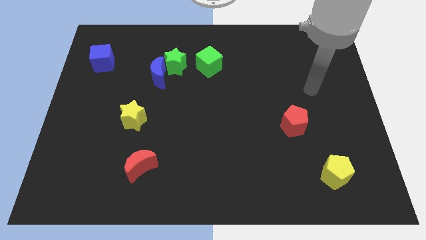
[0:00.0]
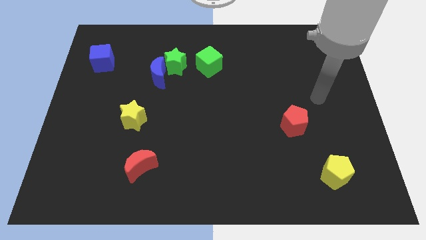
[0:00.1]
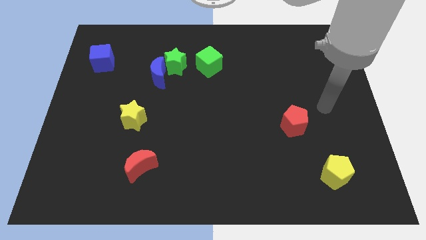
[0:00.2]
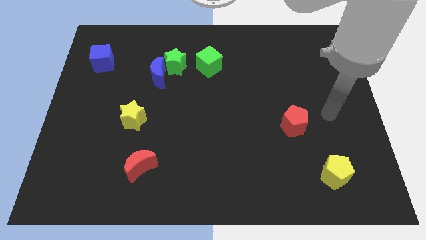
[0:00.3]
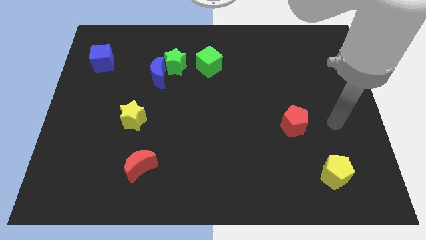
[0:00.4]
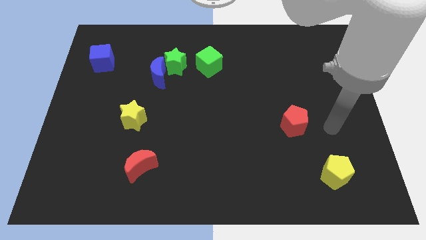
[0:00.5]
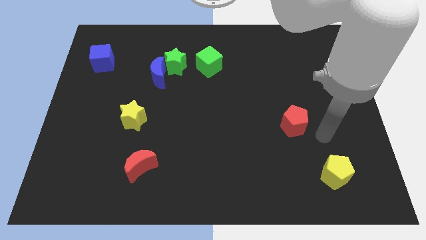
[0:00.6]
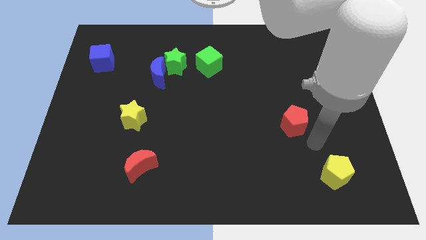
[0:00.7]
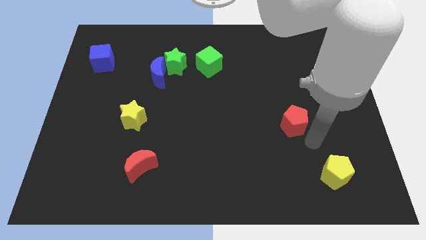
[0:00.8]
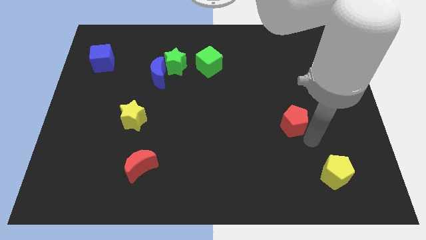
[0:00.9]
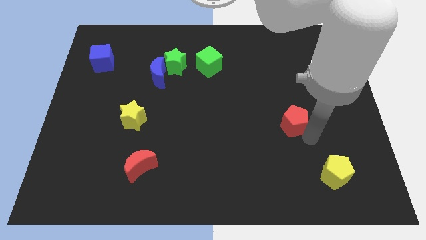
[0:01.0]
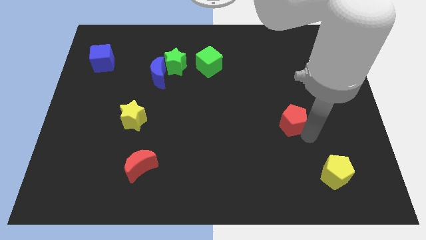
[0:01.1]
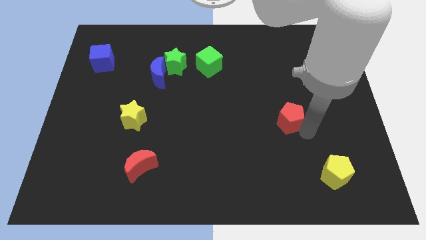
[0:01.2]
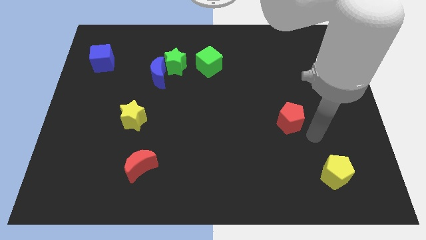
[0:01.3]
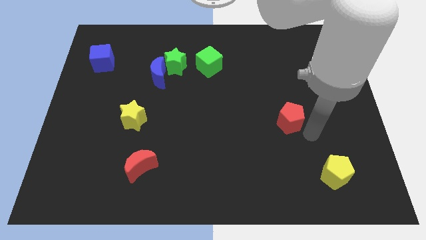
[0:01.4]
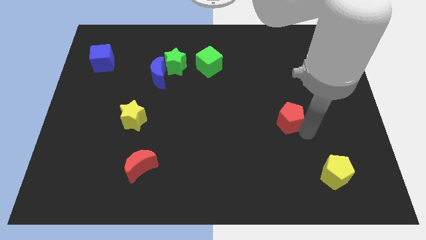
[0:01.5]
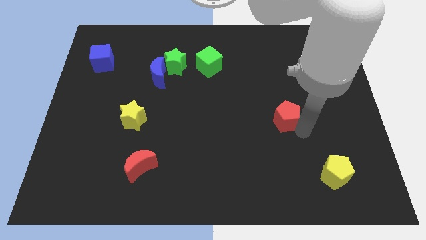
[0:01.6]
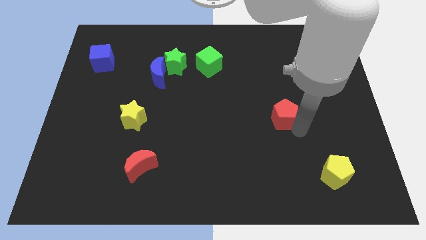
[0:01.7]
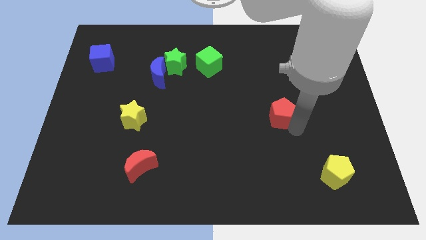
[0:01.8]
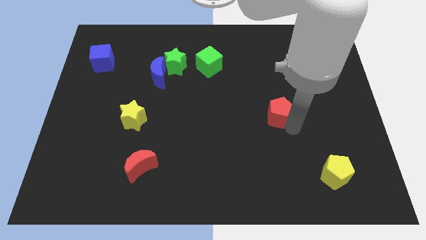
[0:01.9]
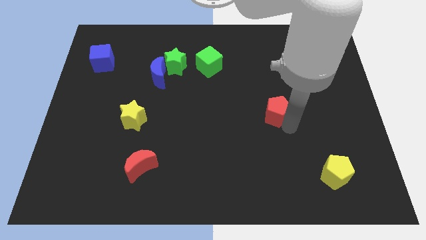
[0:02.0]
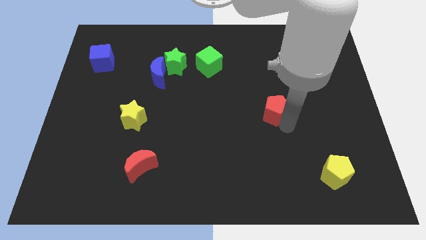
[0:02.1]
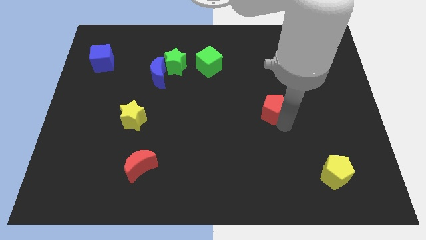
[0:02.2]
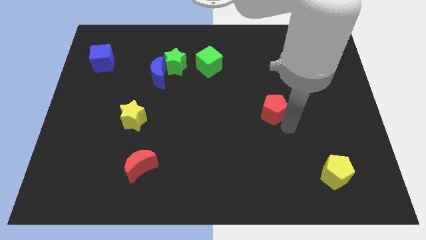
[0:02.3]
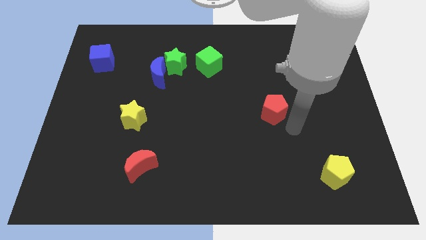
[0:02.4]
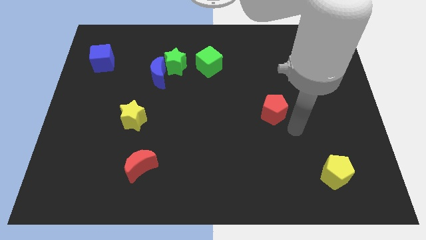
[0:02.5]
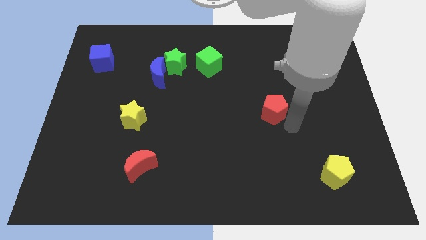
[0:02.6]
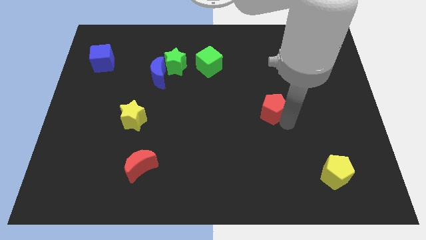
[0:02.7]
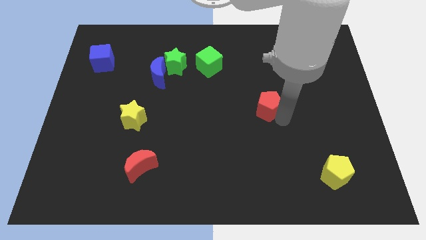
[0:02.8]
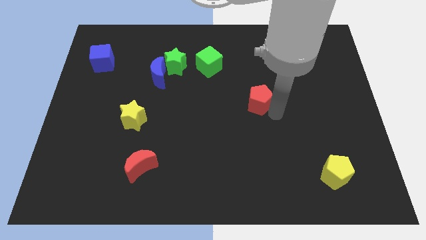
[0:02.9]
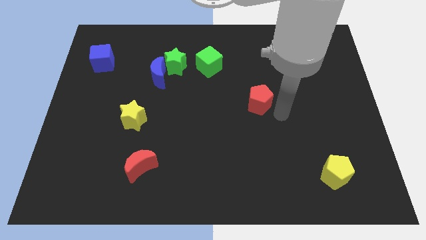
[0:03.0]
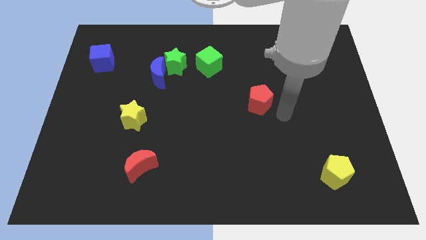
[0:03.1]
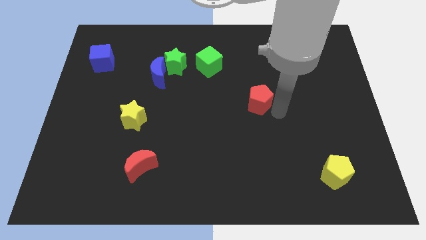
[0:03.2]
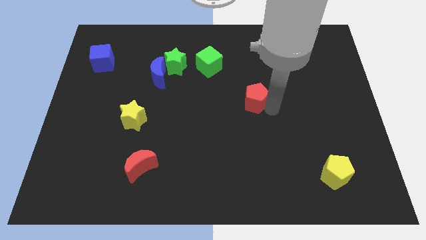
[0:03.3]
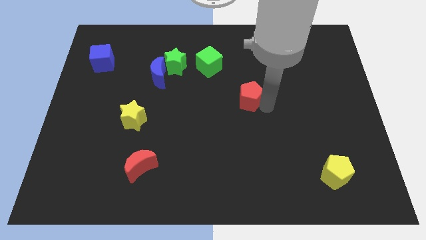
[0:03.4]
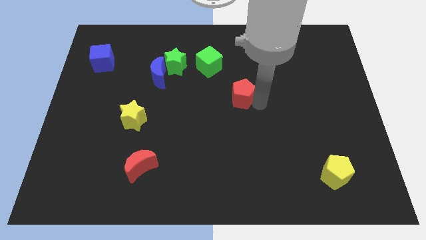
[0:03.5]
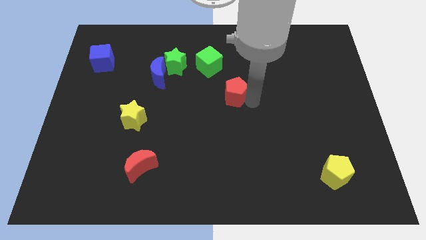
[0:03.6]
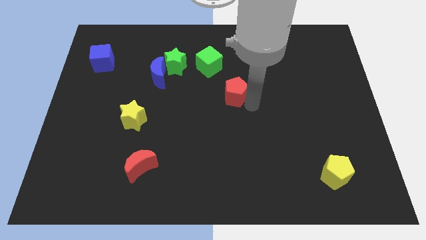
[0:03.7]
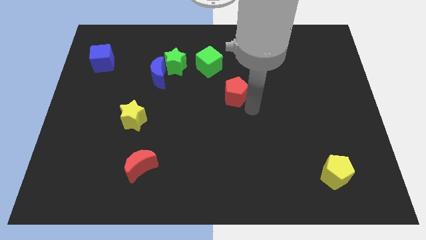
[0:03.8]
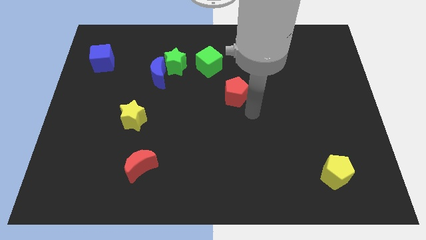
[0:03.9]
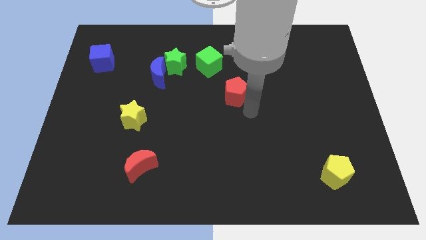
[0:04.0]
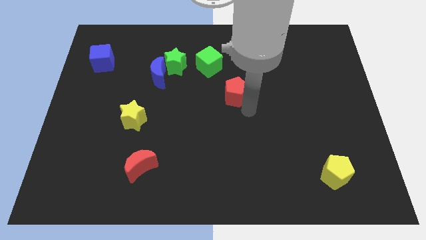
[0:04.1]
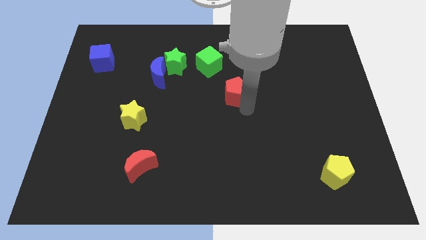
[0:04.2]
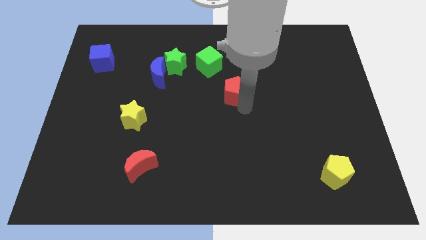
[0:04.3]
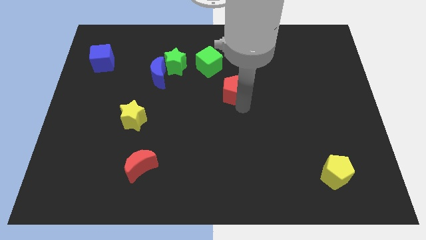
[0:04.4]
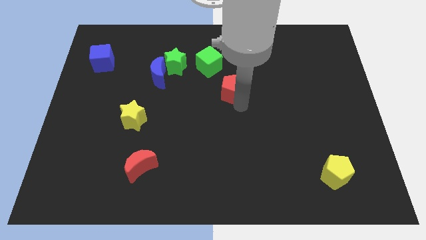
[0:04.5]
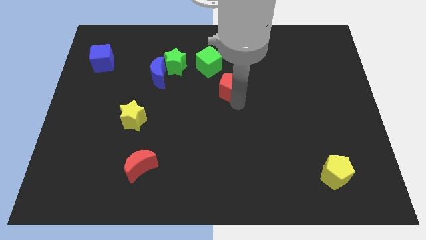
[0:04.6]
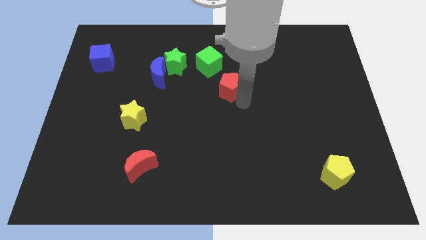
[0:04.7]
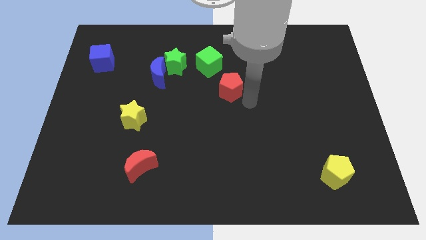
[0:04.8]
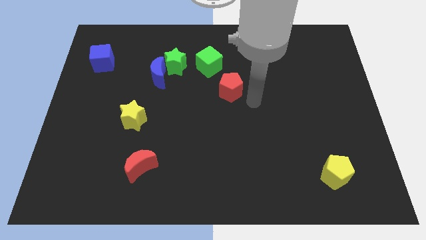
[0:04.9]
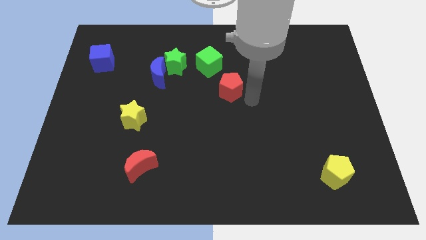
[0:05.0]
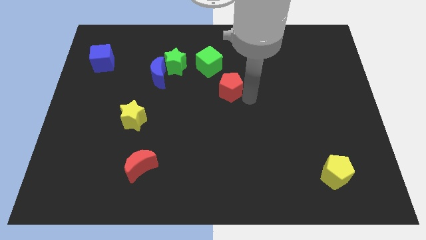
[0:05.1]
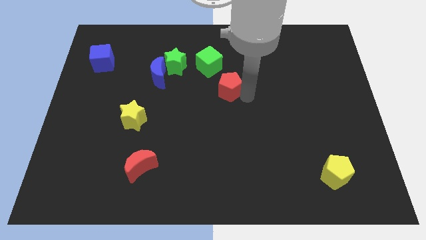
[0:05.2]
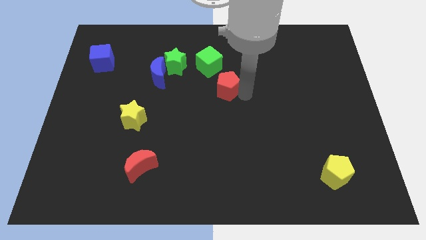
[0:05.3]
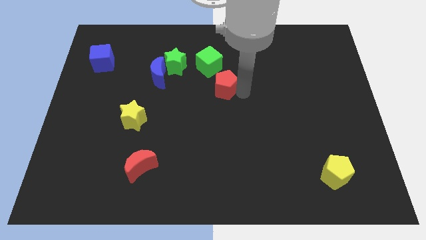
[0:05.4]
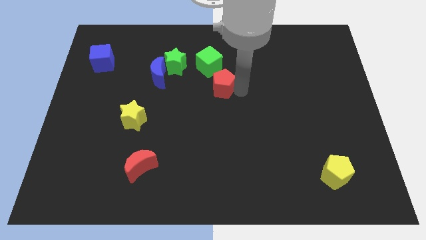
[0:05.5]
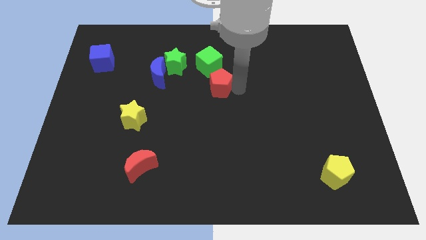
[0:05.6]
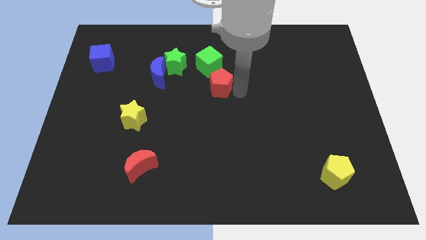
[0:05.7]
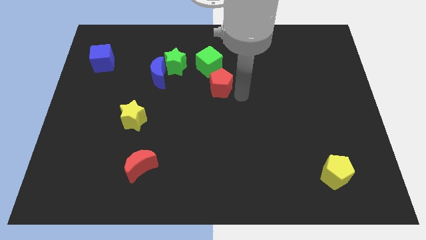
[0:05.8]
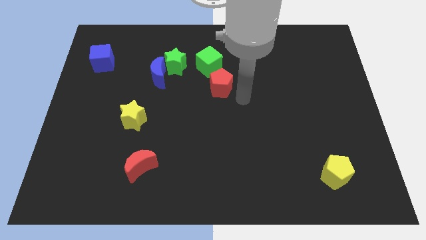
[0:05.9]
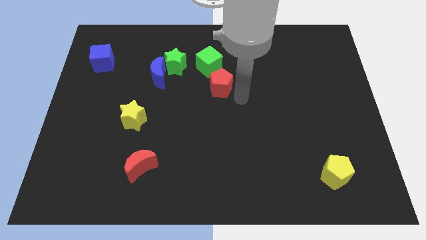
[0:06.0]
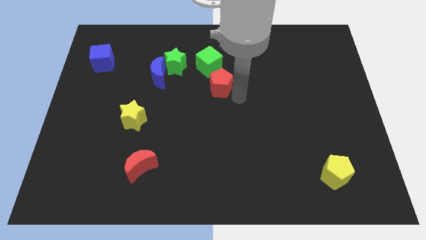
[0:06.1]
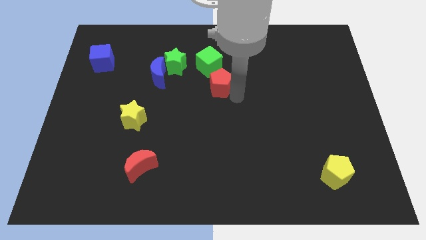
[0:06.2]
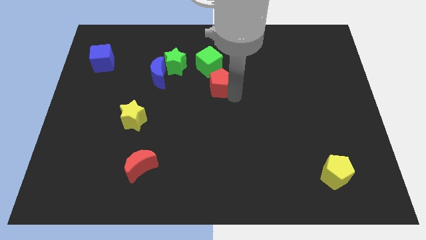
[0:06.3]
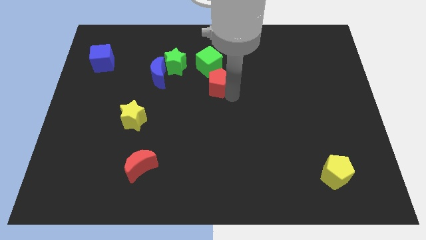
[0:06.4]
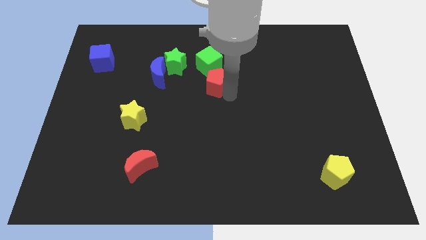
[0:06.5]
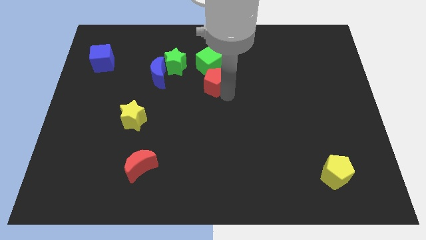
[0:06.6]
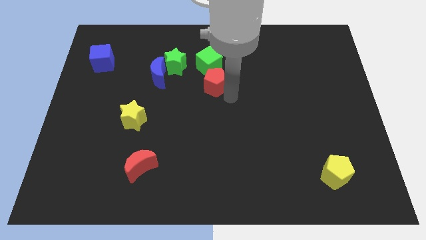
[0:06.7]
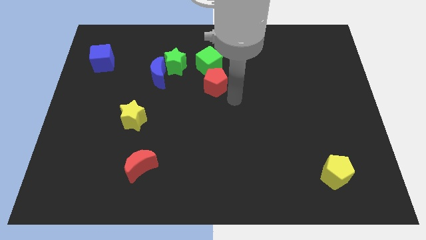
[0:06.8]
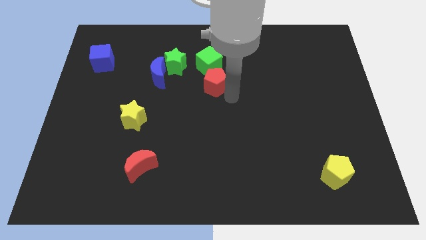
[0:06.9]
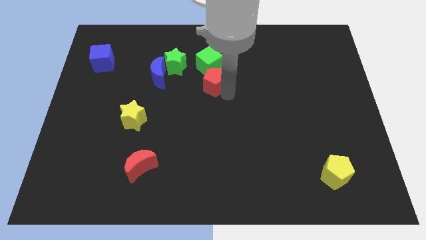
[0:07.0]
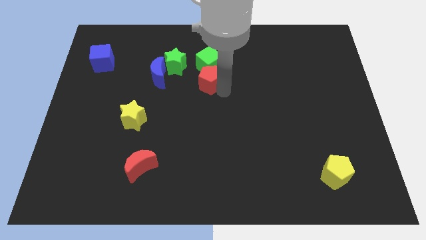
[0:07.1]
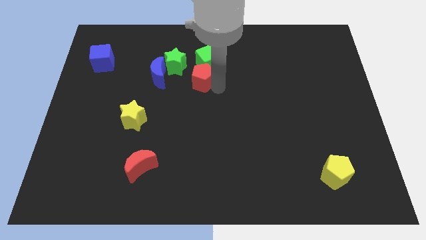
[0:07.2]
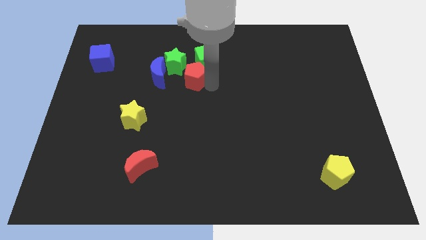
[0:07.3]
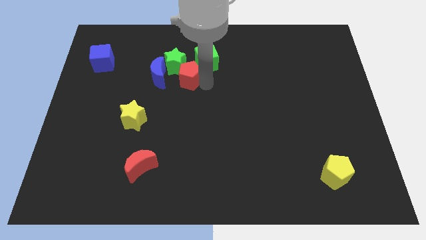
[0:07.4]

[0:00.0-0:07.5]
move the red pentagon close to the green star

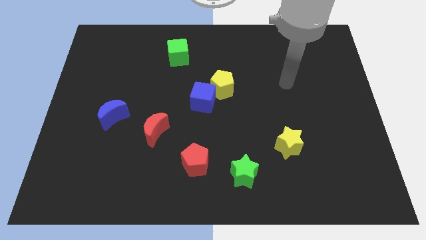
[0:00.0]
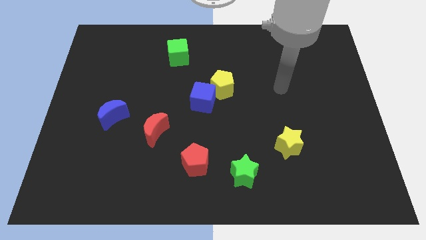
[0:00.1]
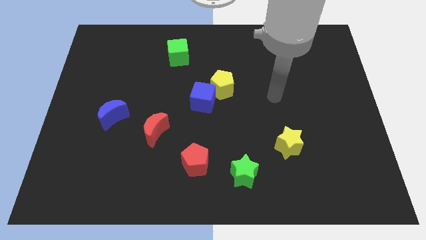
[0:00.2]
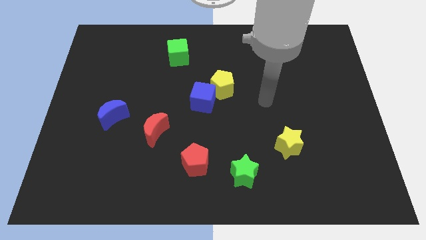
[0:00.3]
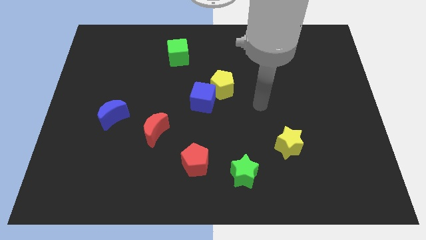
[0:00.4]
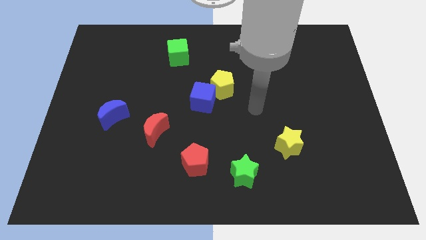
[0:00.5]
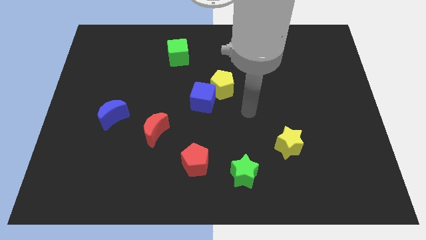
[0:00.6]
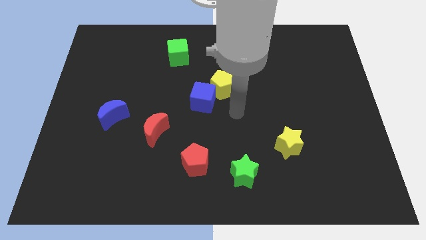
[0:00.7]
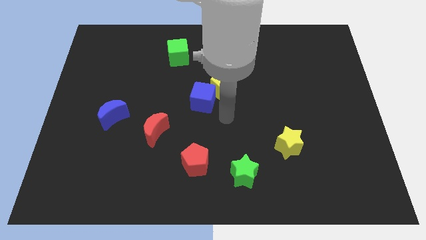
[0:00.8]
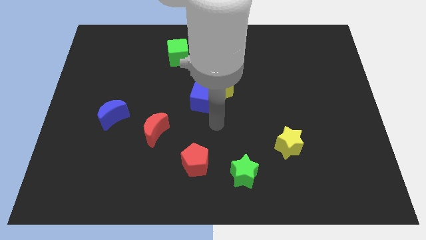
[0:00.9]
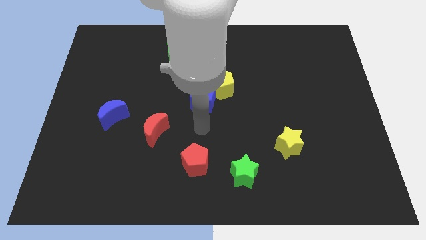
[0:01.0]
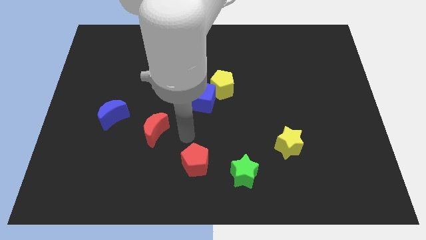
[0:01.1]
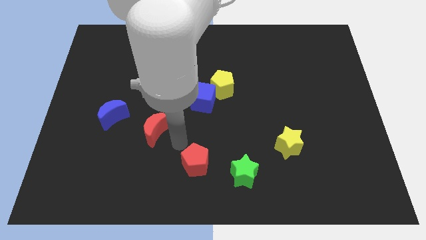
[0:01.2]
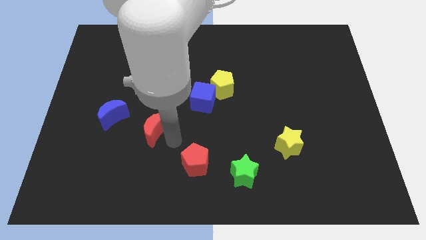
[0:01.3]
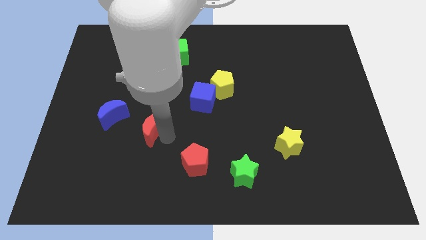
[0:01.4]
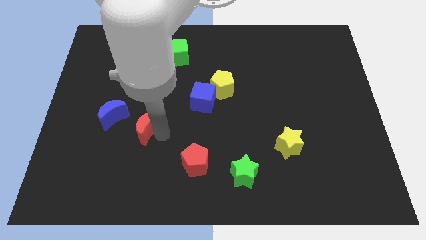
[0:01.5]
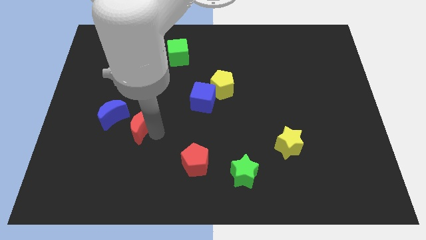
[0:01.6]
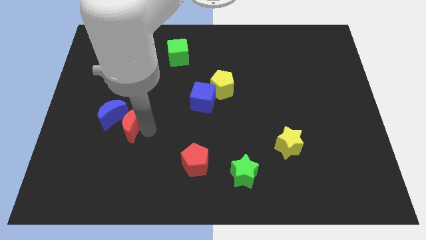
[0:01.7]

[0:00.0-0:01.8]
push the red moon next to the blue moon
